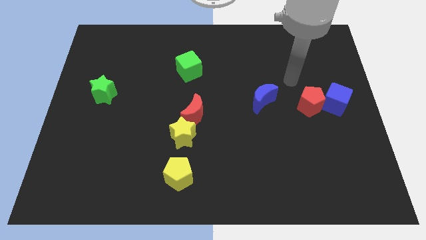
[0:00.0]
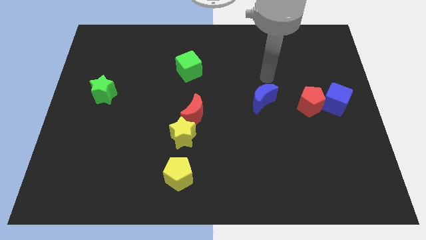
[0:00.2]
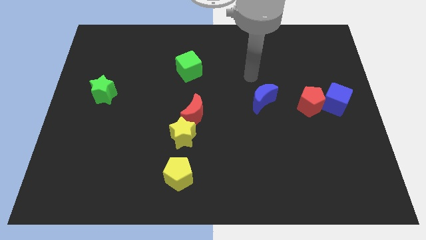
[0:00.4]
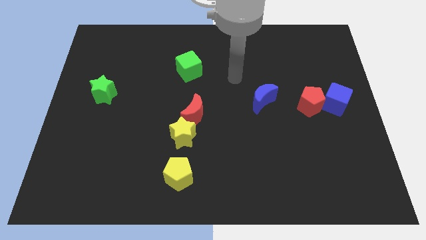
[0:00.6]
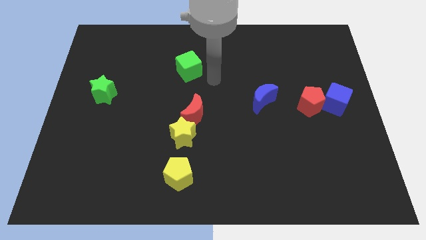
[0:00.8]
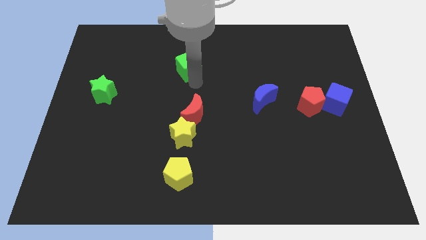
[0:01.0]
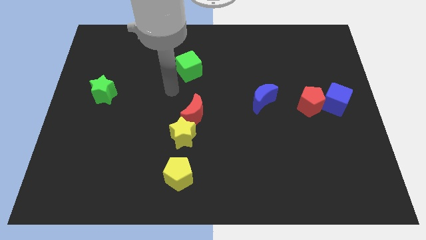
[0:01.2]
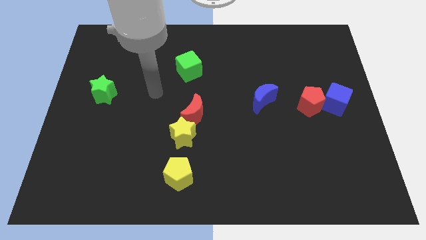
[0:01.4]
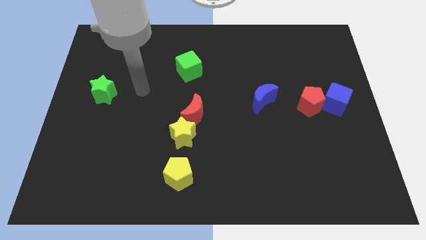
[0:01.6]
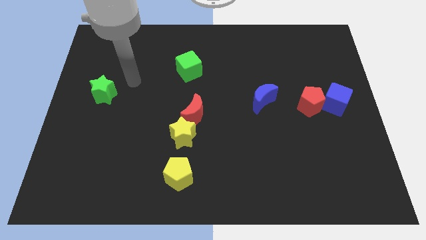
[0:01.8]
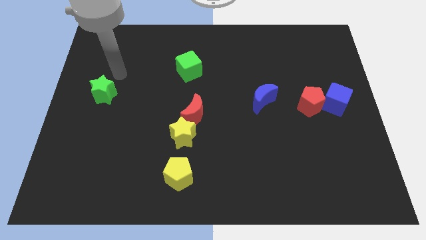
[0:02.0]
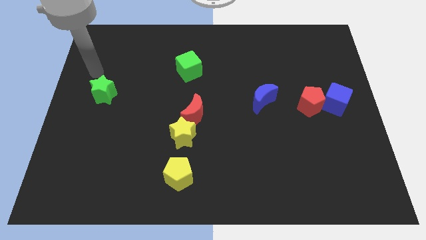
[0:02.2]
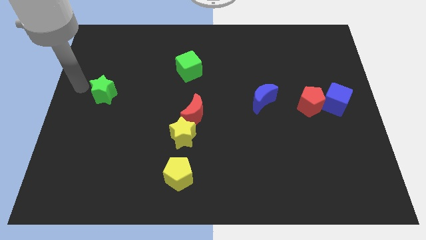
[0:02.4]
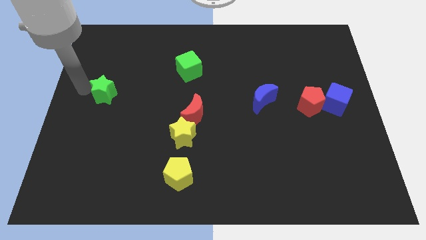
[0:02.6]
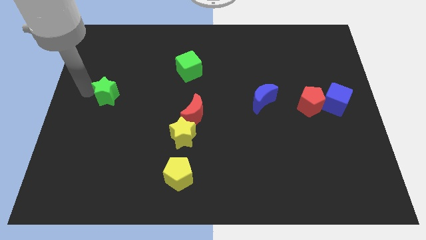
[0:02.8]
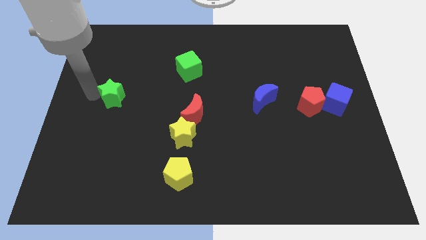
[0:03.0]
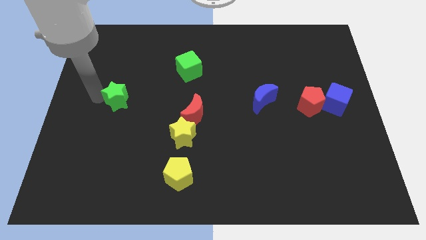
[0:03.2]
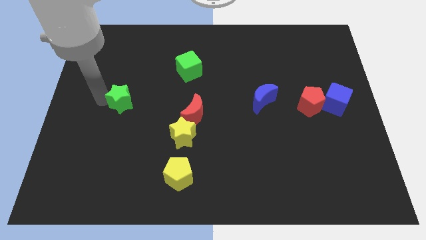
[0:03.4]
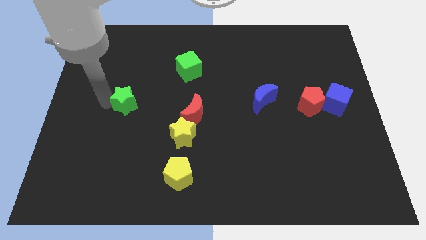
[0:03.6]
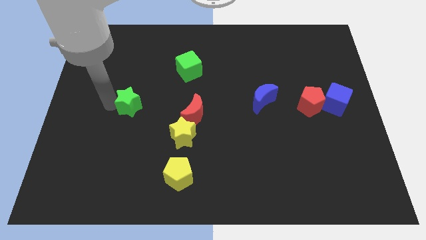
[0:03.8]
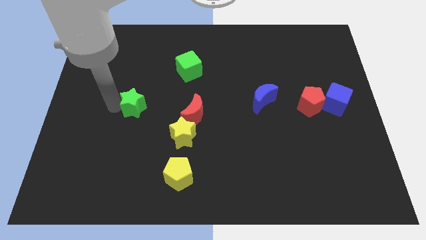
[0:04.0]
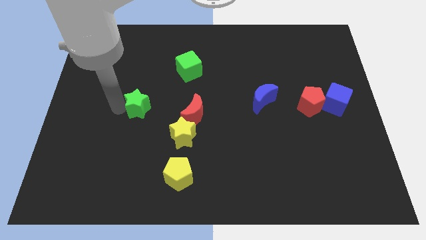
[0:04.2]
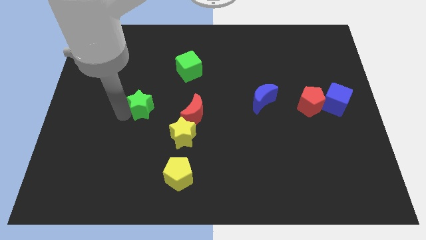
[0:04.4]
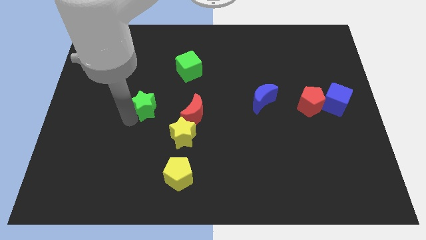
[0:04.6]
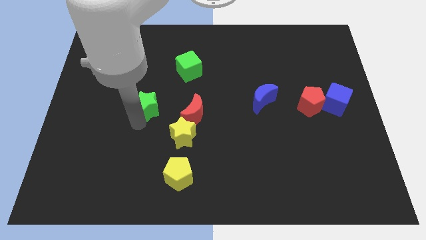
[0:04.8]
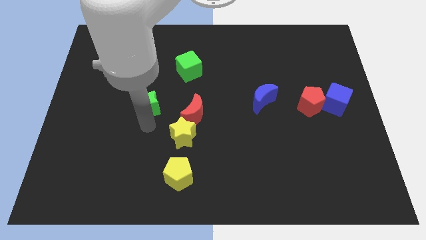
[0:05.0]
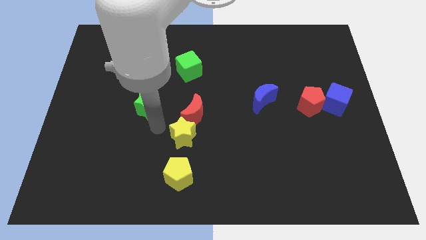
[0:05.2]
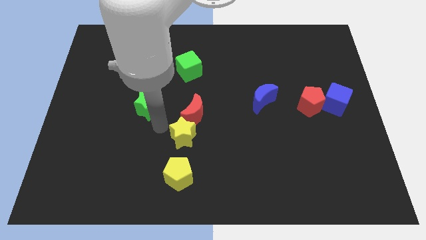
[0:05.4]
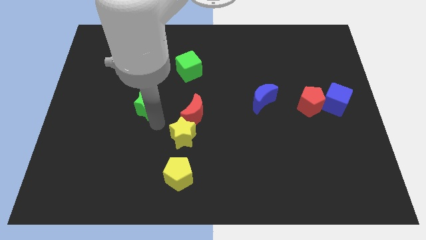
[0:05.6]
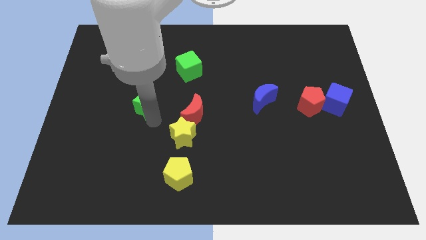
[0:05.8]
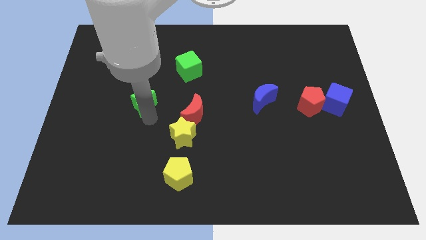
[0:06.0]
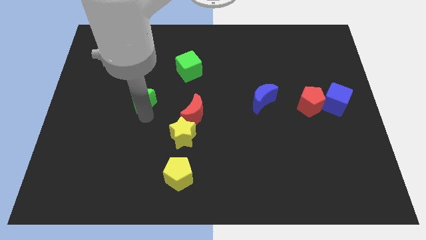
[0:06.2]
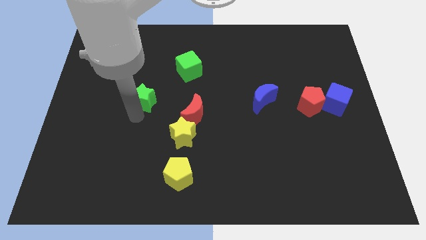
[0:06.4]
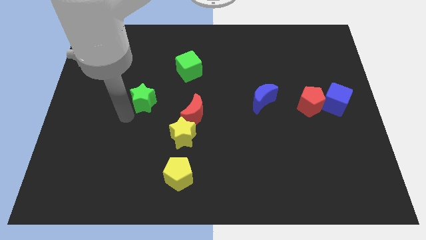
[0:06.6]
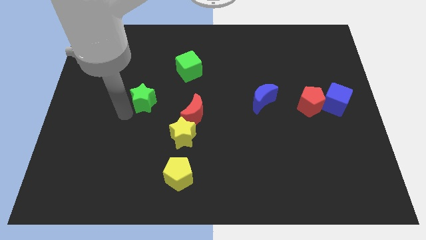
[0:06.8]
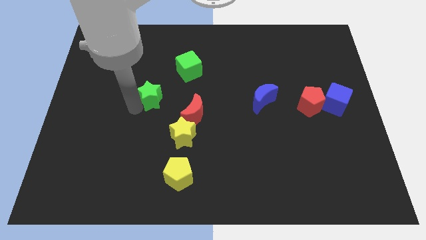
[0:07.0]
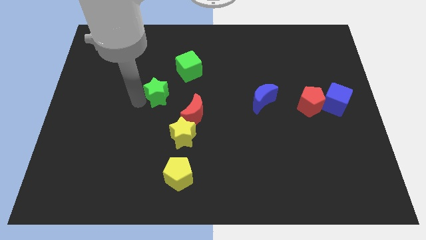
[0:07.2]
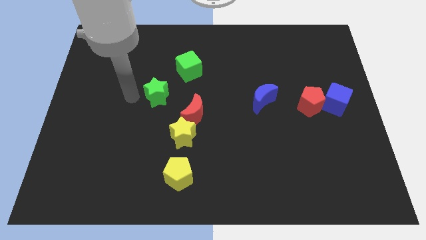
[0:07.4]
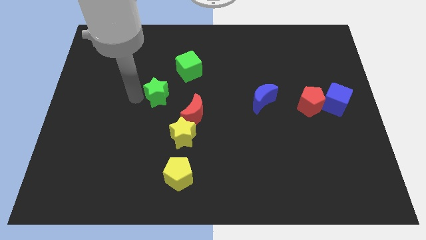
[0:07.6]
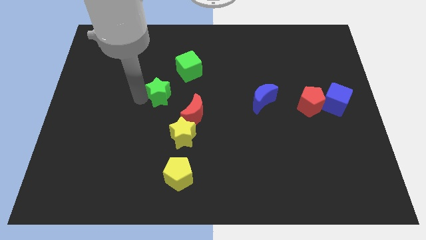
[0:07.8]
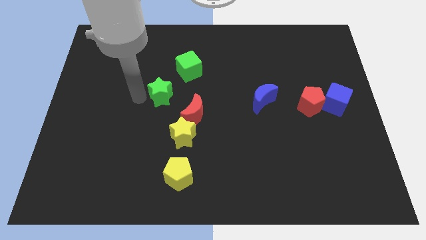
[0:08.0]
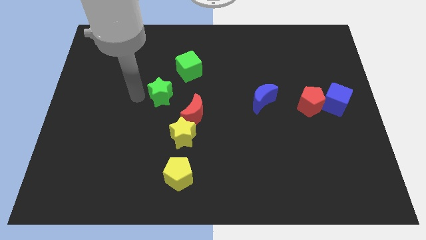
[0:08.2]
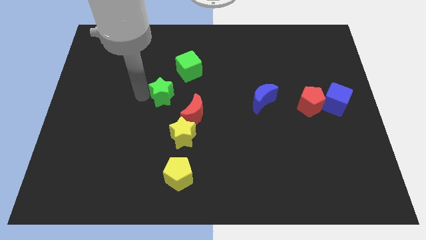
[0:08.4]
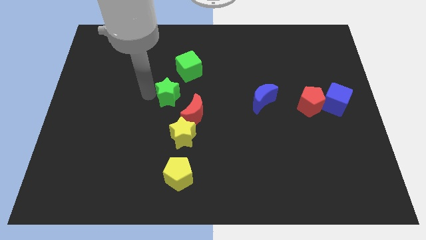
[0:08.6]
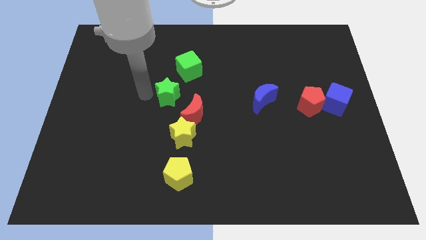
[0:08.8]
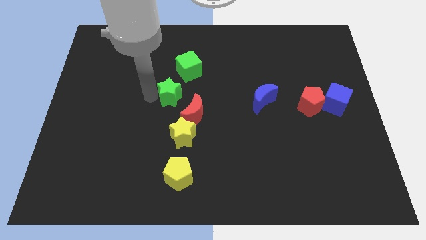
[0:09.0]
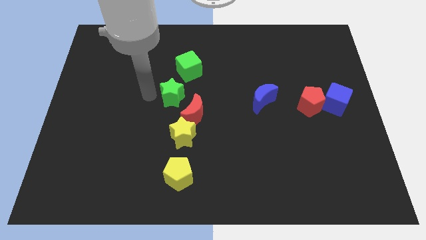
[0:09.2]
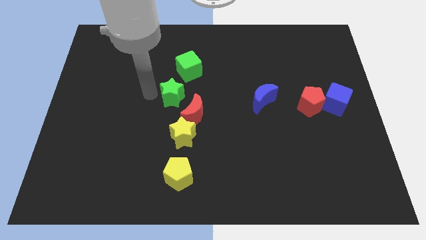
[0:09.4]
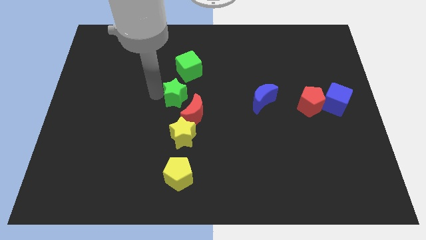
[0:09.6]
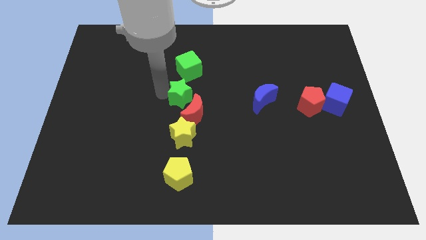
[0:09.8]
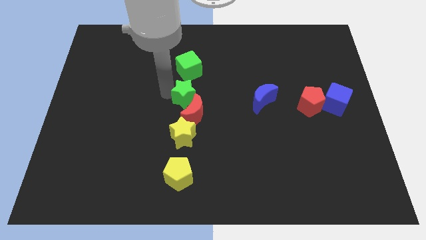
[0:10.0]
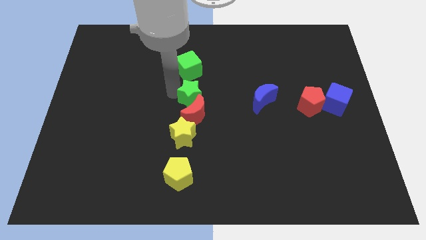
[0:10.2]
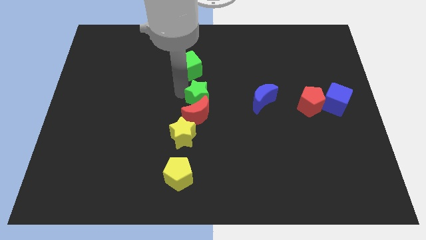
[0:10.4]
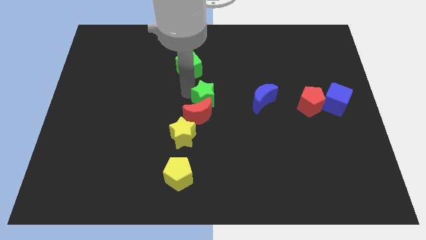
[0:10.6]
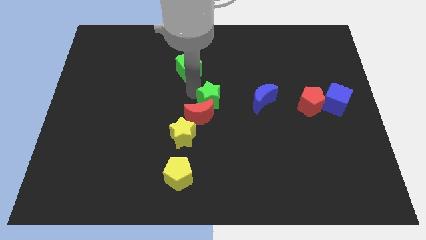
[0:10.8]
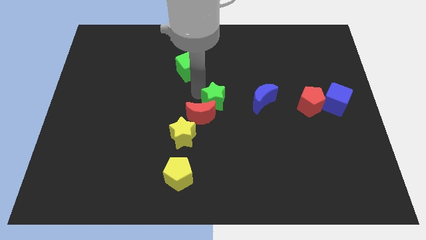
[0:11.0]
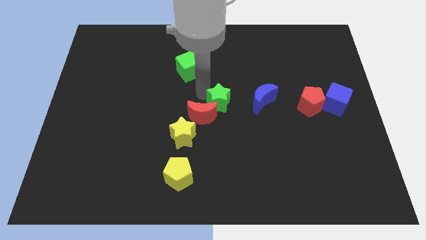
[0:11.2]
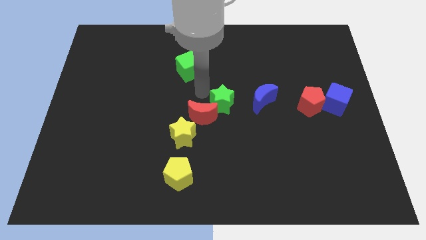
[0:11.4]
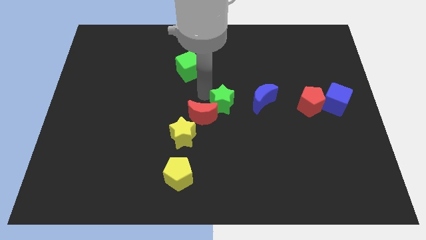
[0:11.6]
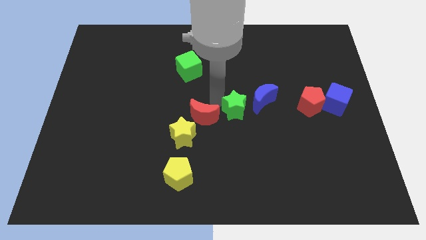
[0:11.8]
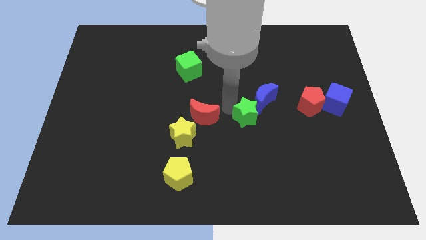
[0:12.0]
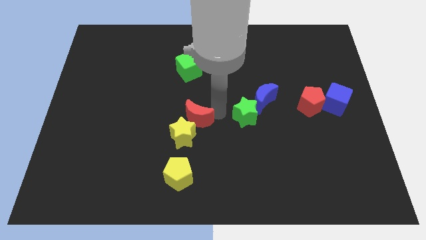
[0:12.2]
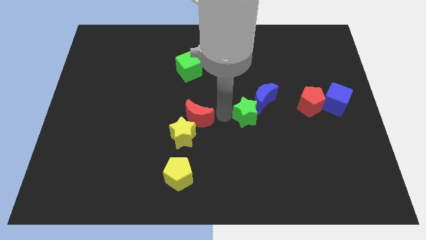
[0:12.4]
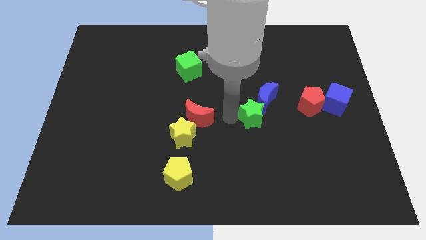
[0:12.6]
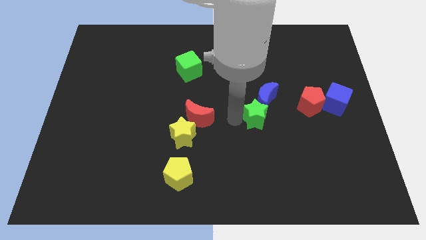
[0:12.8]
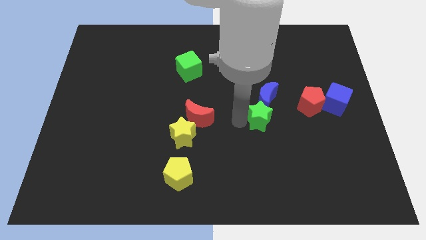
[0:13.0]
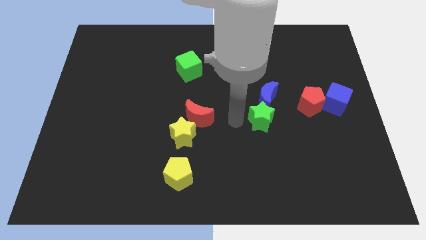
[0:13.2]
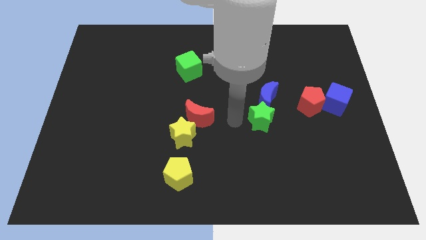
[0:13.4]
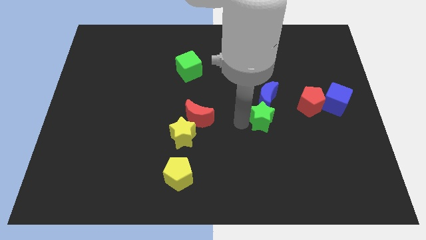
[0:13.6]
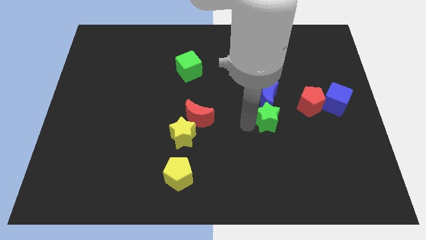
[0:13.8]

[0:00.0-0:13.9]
move the green star to the bottom left side of the red pentagon
